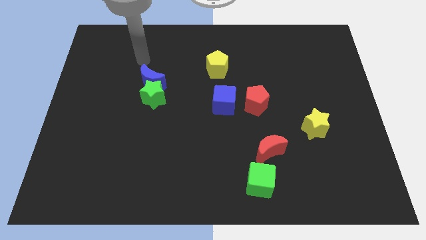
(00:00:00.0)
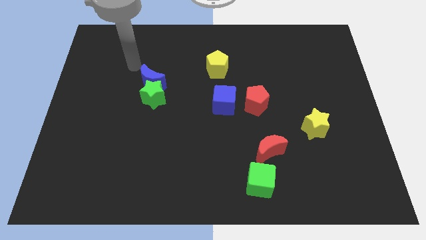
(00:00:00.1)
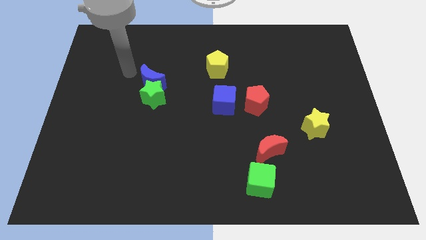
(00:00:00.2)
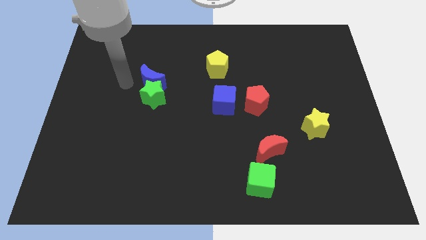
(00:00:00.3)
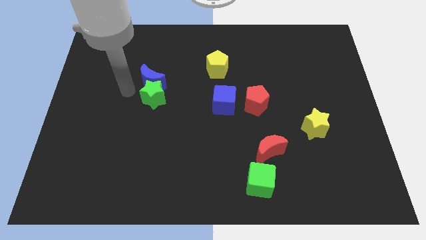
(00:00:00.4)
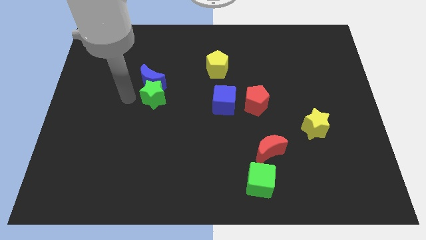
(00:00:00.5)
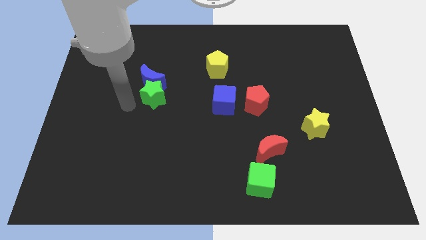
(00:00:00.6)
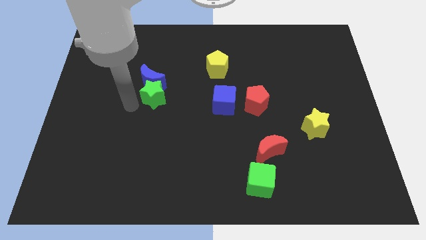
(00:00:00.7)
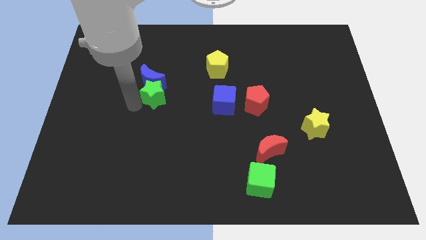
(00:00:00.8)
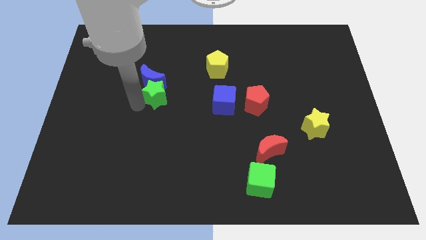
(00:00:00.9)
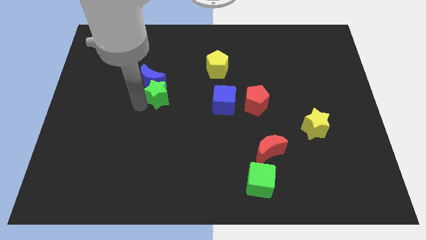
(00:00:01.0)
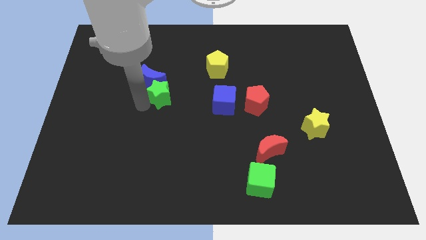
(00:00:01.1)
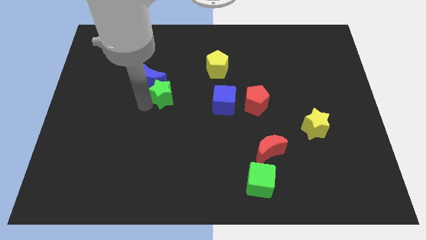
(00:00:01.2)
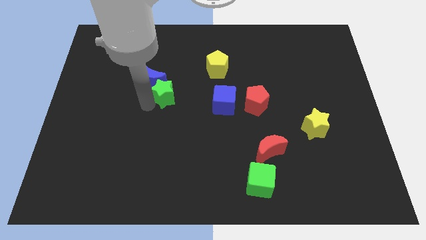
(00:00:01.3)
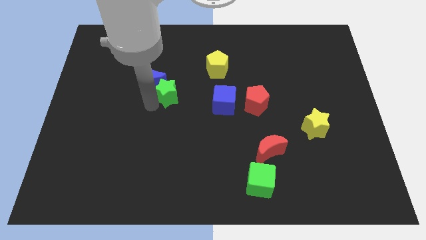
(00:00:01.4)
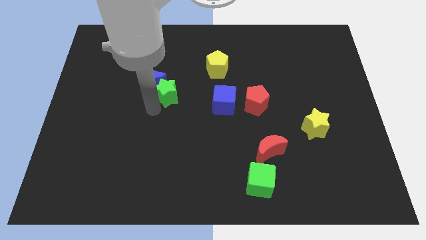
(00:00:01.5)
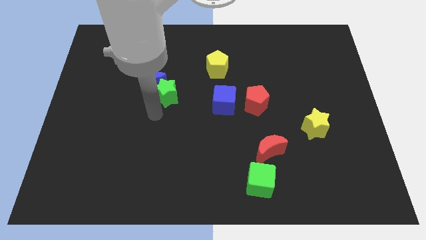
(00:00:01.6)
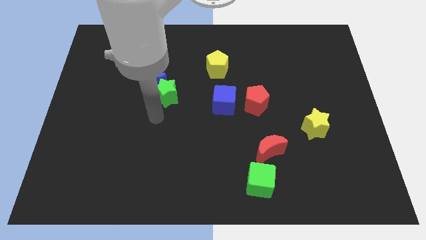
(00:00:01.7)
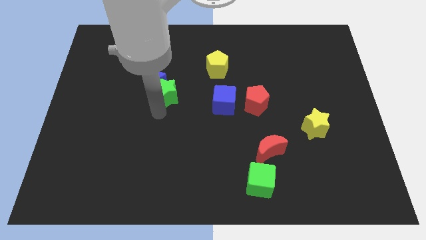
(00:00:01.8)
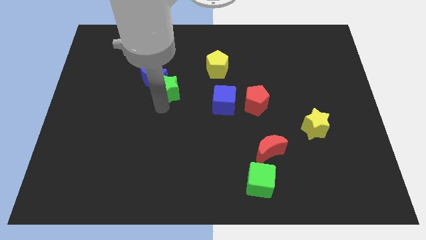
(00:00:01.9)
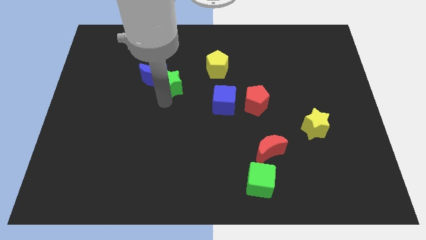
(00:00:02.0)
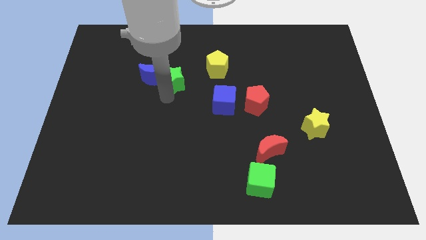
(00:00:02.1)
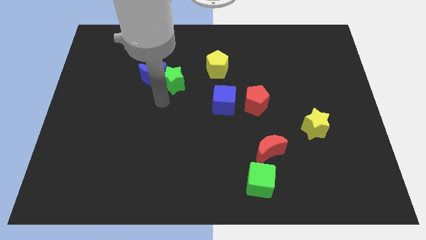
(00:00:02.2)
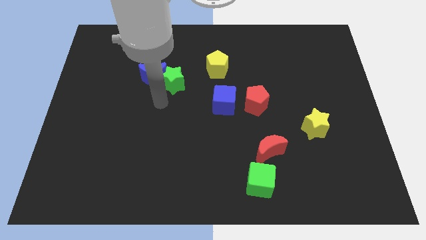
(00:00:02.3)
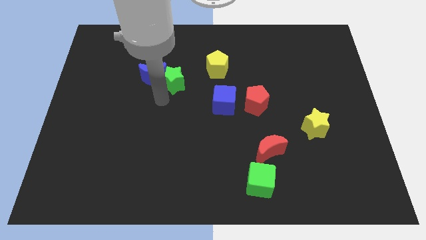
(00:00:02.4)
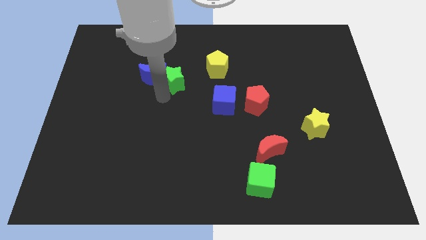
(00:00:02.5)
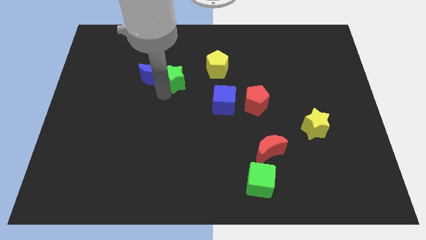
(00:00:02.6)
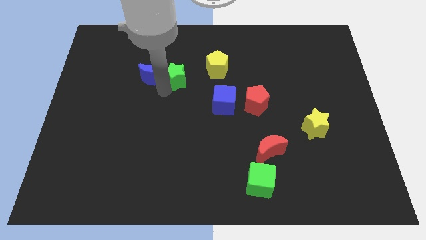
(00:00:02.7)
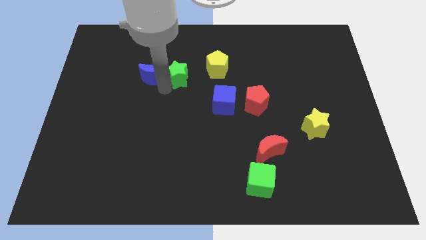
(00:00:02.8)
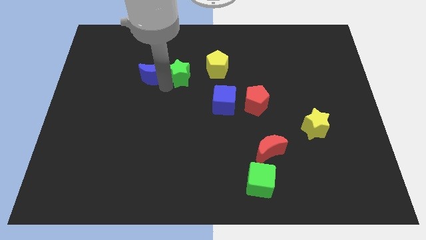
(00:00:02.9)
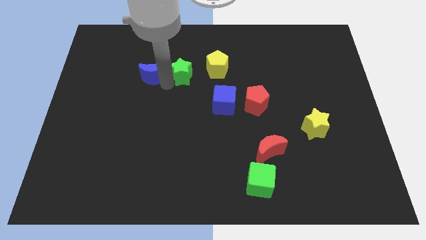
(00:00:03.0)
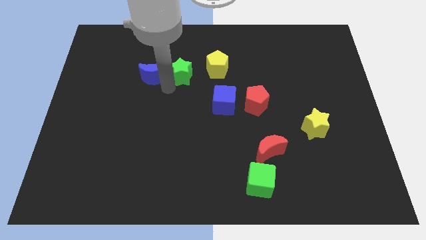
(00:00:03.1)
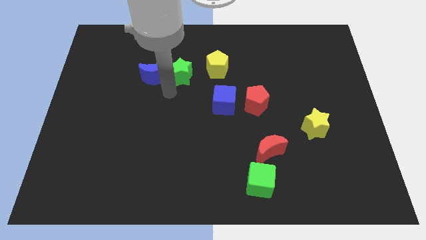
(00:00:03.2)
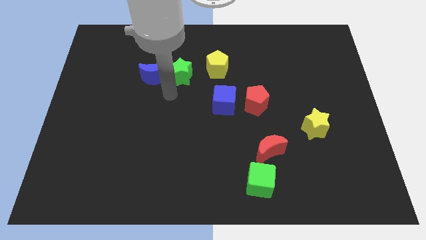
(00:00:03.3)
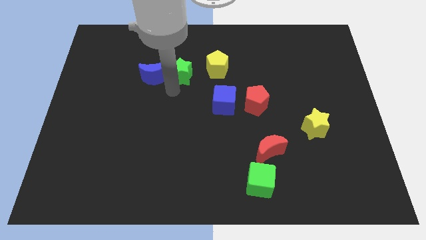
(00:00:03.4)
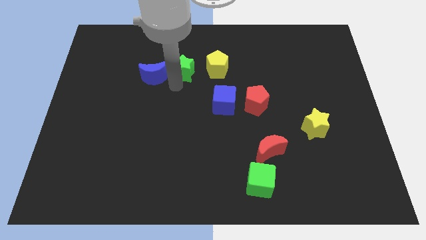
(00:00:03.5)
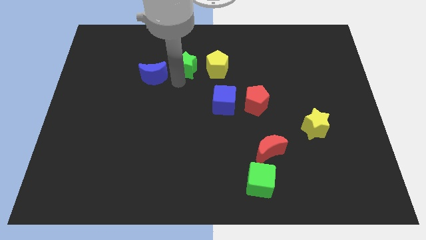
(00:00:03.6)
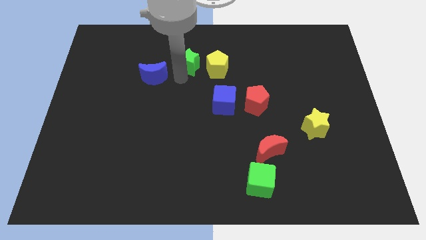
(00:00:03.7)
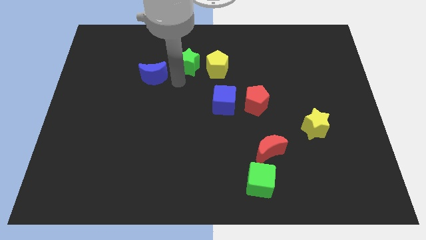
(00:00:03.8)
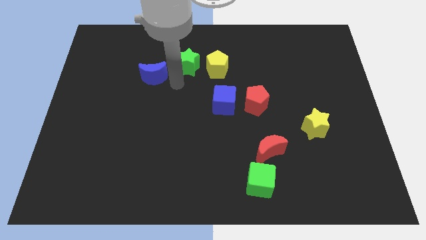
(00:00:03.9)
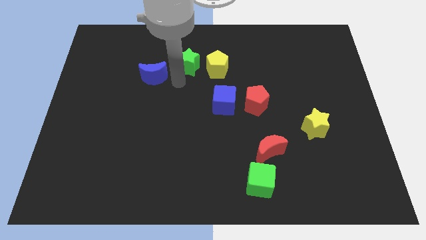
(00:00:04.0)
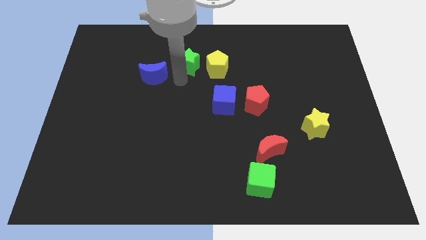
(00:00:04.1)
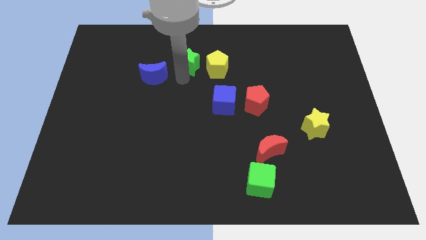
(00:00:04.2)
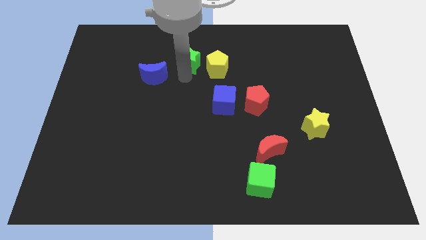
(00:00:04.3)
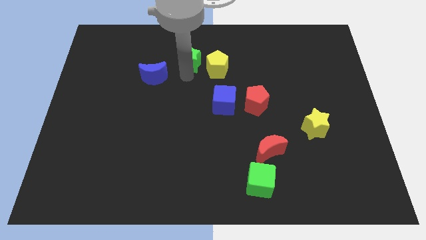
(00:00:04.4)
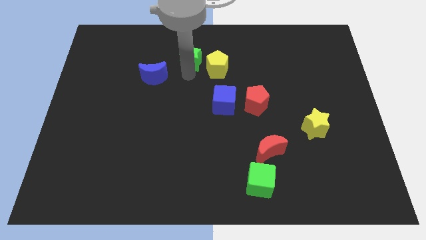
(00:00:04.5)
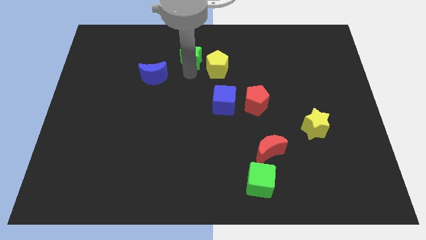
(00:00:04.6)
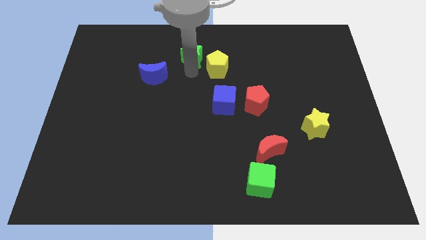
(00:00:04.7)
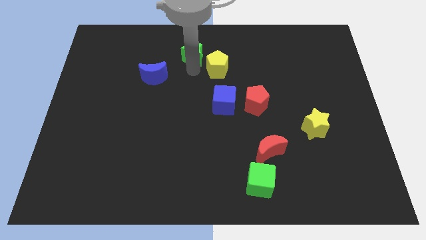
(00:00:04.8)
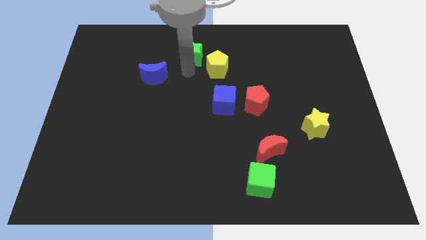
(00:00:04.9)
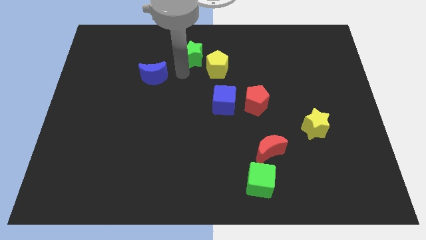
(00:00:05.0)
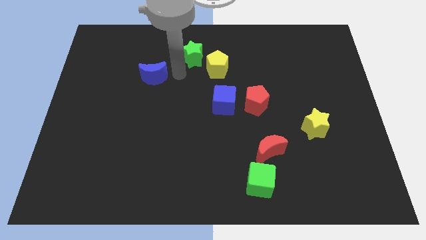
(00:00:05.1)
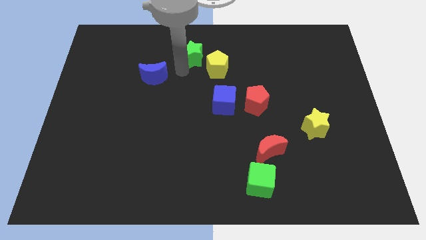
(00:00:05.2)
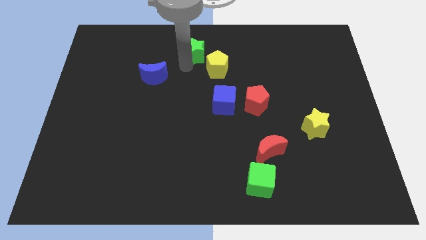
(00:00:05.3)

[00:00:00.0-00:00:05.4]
put the green star to the top

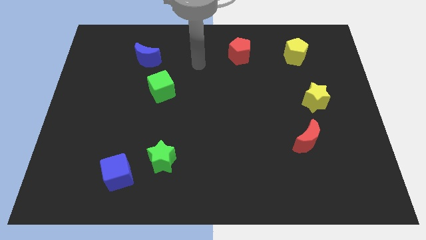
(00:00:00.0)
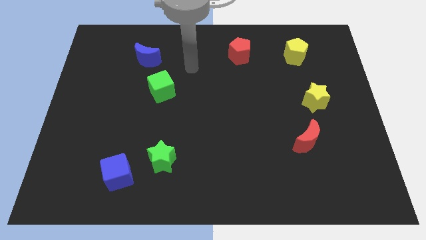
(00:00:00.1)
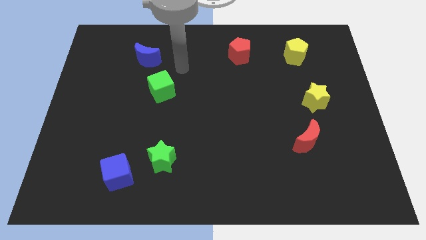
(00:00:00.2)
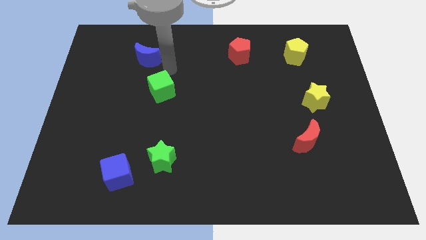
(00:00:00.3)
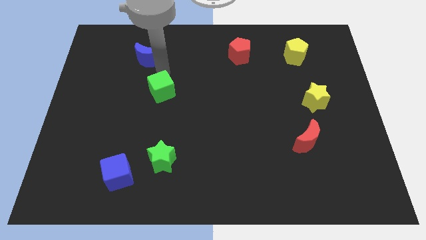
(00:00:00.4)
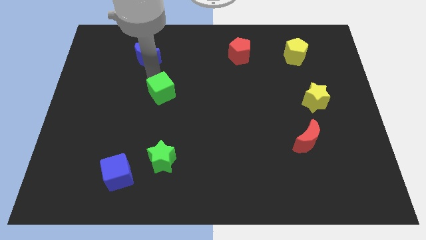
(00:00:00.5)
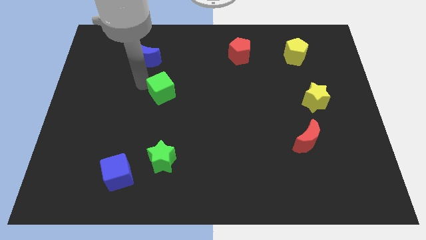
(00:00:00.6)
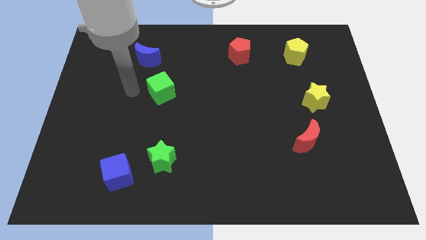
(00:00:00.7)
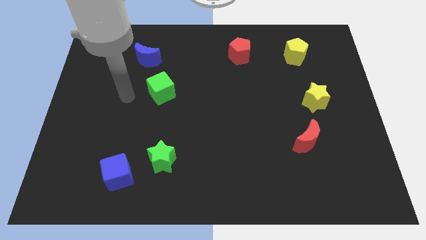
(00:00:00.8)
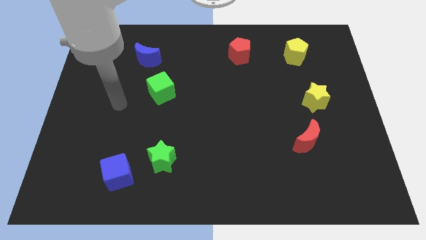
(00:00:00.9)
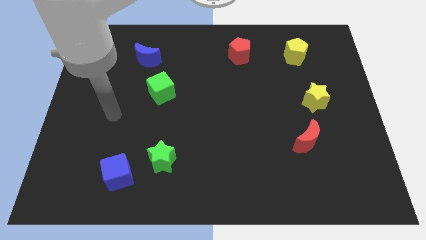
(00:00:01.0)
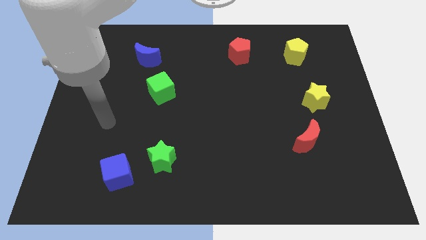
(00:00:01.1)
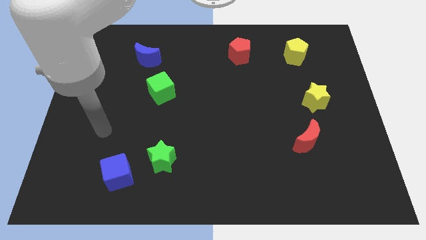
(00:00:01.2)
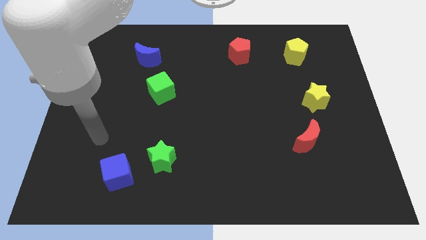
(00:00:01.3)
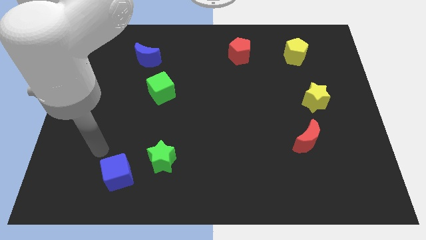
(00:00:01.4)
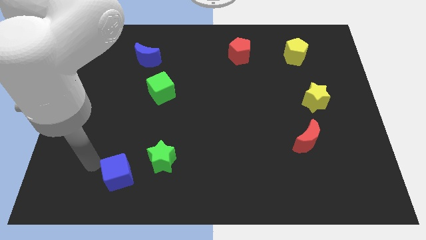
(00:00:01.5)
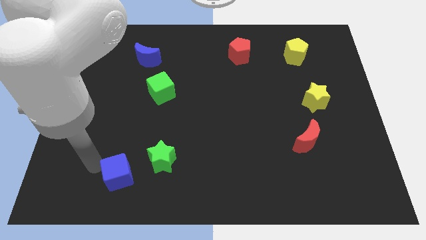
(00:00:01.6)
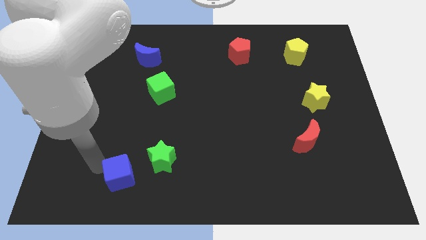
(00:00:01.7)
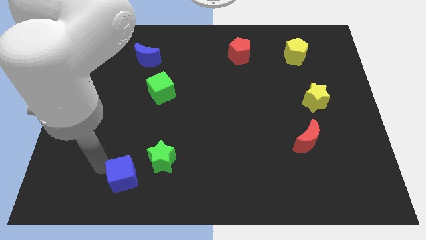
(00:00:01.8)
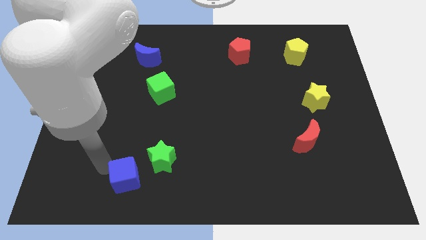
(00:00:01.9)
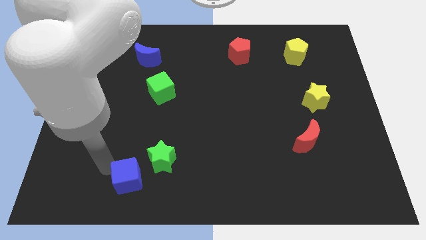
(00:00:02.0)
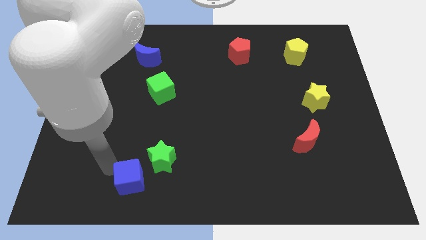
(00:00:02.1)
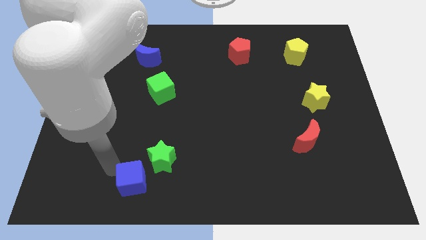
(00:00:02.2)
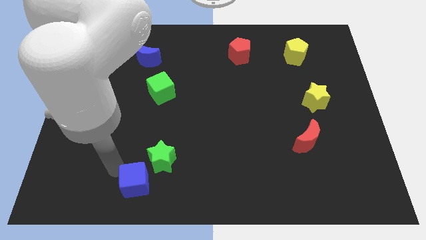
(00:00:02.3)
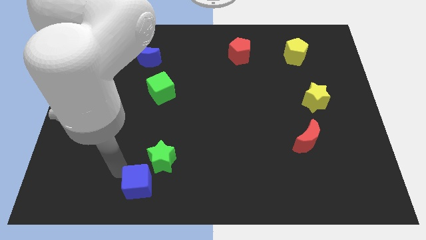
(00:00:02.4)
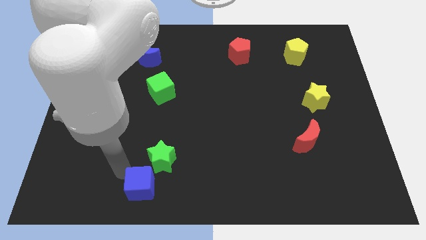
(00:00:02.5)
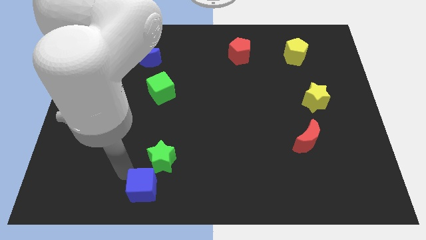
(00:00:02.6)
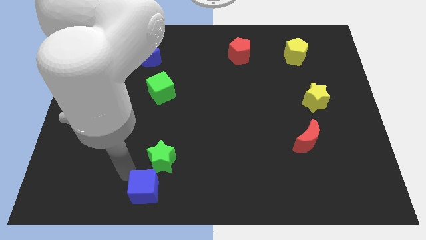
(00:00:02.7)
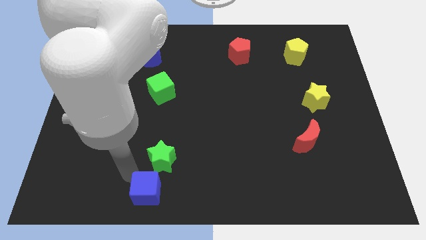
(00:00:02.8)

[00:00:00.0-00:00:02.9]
push the blue cube to the bottom side
